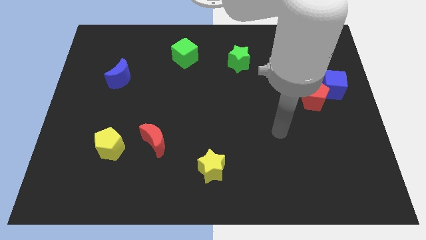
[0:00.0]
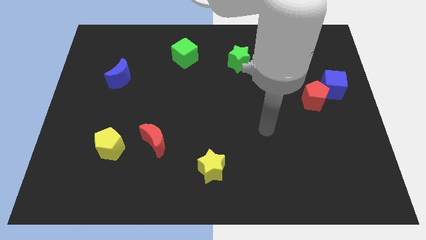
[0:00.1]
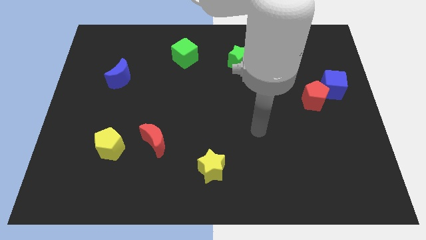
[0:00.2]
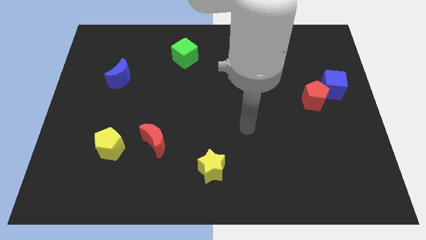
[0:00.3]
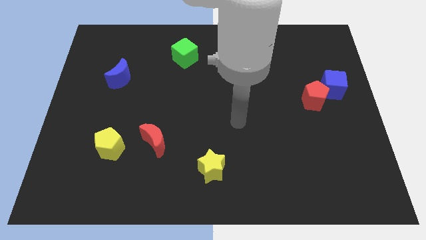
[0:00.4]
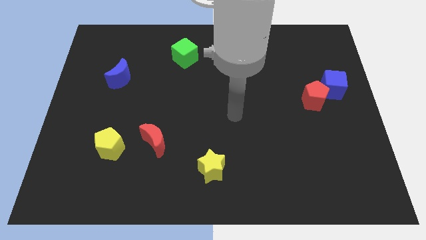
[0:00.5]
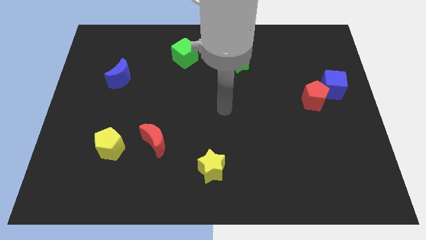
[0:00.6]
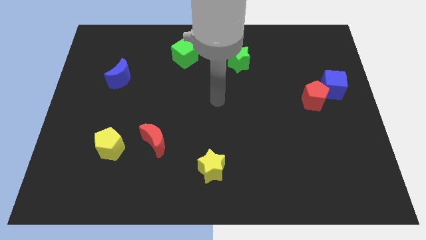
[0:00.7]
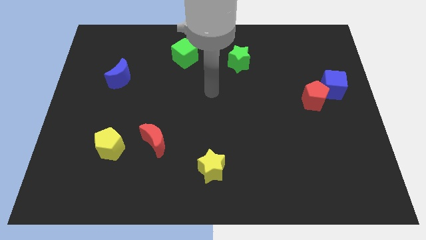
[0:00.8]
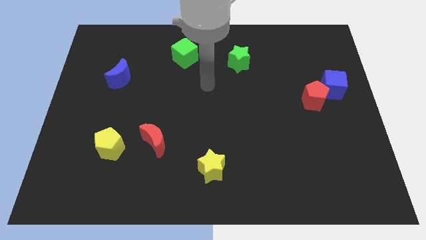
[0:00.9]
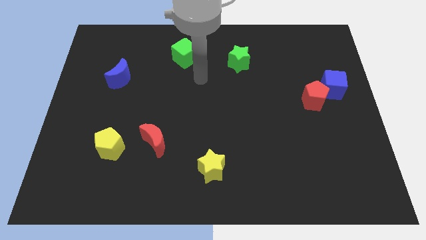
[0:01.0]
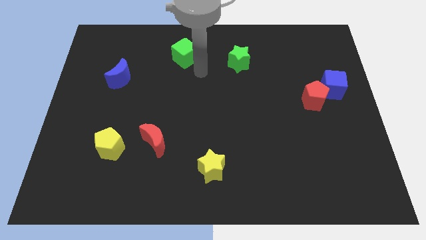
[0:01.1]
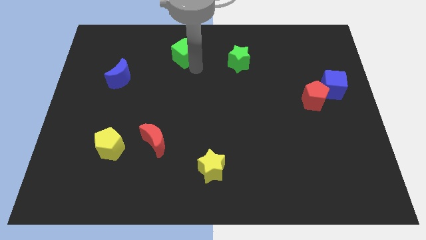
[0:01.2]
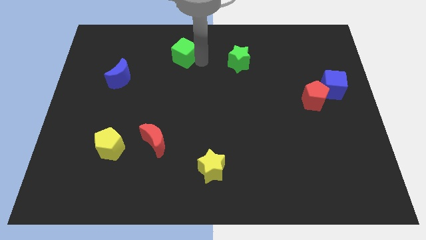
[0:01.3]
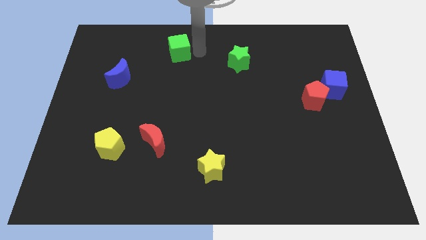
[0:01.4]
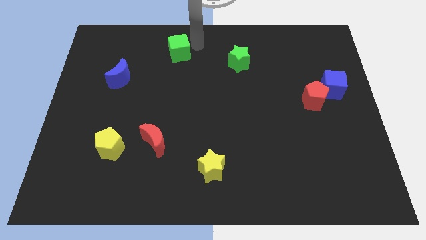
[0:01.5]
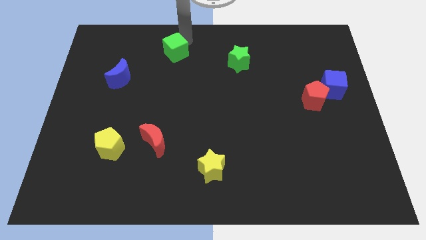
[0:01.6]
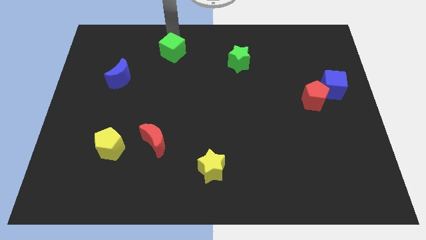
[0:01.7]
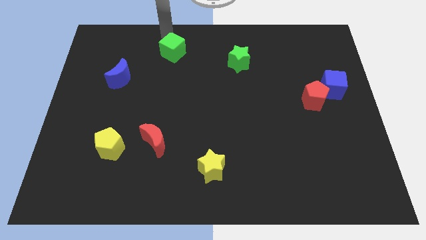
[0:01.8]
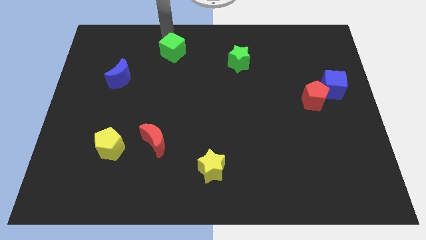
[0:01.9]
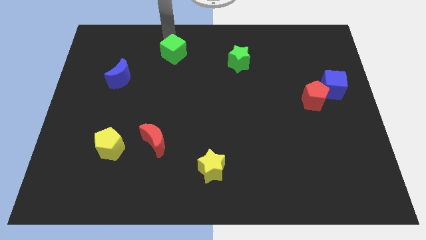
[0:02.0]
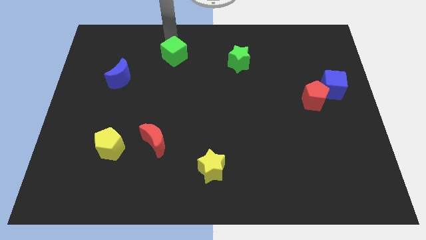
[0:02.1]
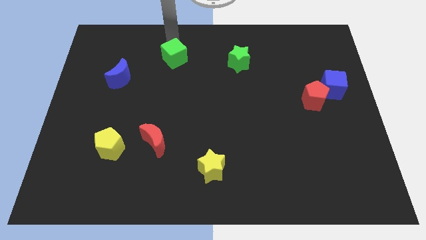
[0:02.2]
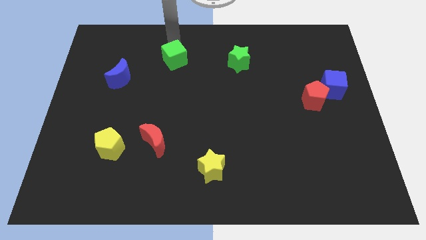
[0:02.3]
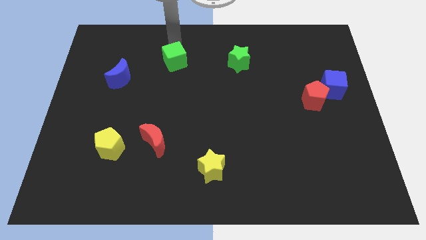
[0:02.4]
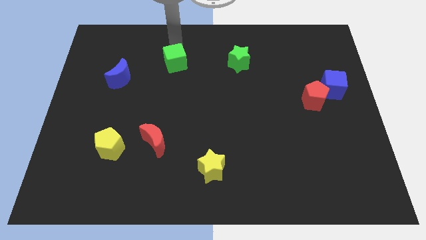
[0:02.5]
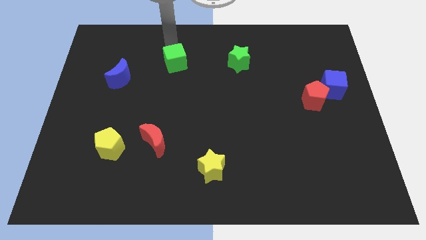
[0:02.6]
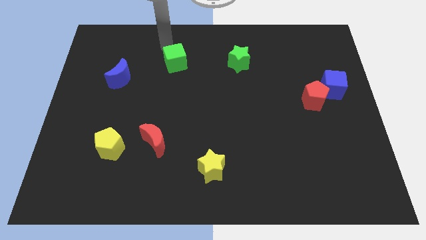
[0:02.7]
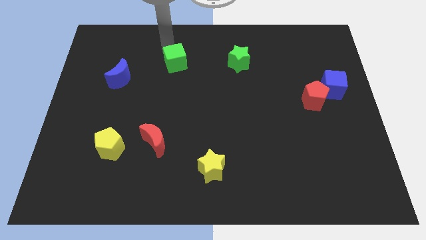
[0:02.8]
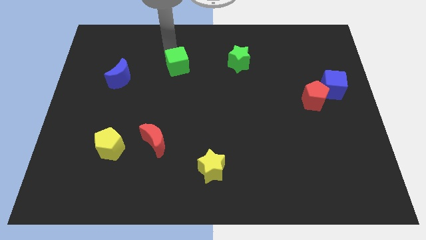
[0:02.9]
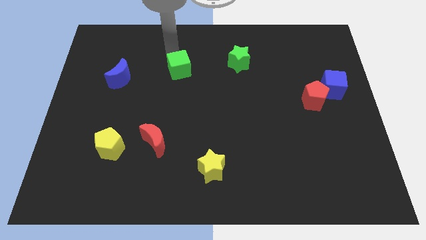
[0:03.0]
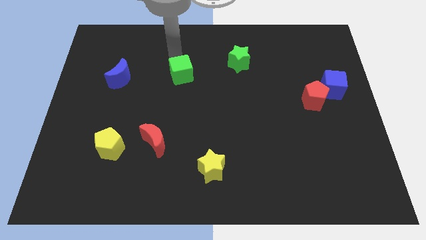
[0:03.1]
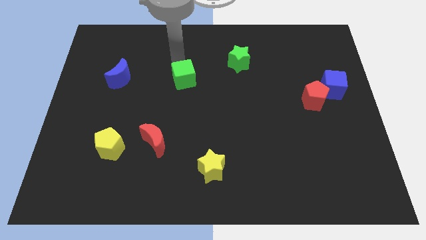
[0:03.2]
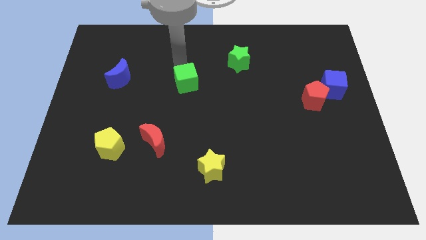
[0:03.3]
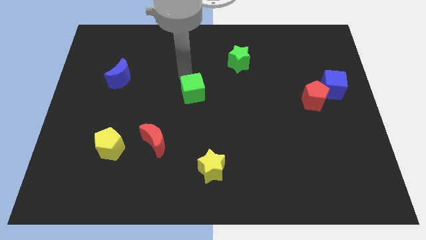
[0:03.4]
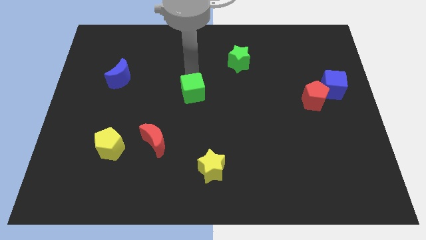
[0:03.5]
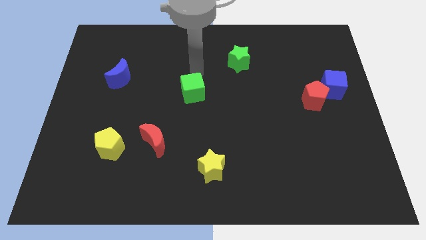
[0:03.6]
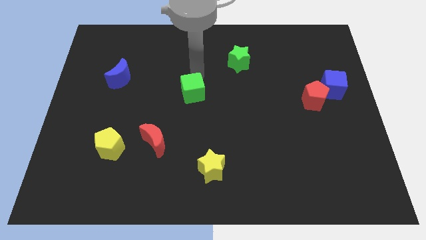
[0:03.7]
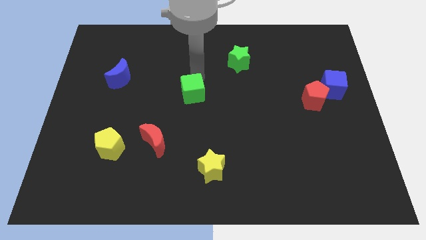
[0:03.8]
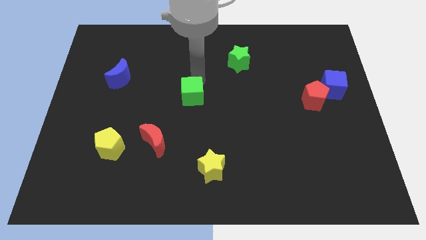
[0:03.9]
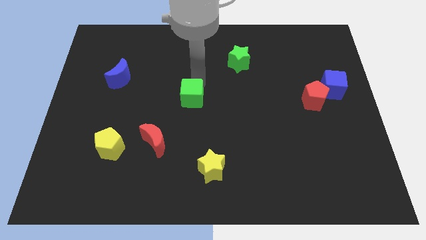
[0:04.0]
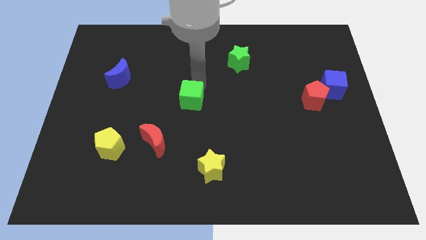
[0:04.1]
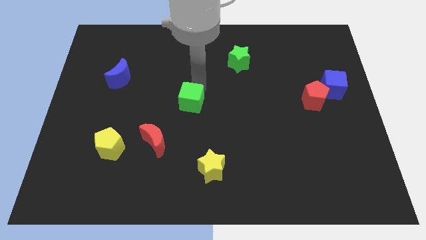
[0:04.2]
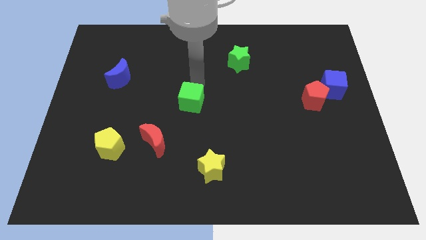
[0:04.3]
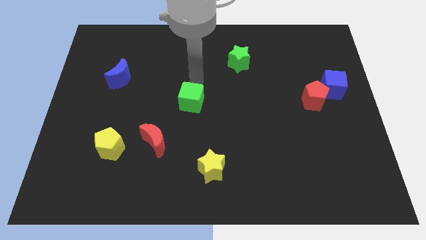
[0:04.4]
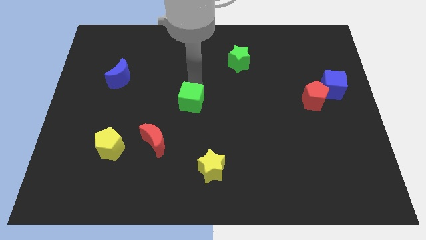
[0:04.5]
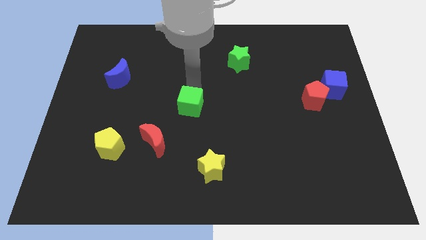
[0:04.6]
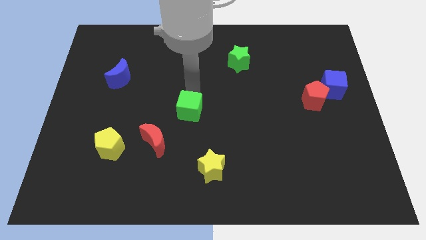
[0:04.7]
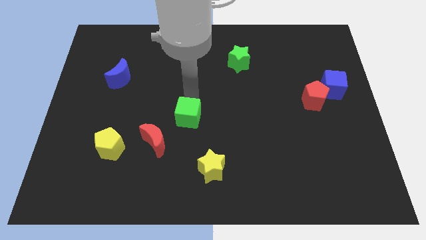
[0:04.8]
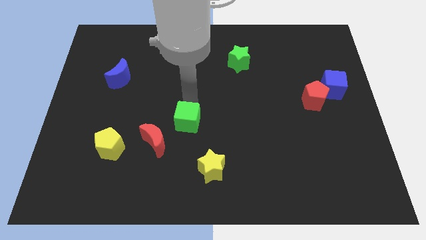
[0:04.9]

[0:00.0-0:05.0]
push the green cube down

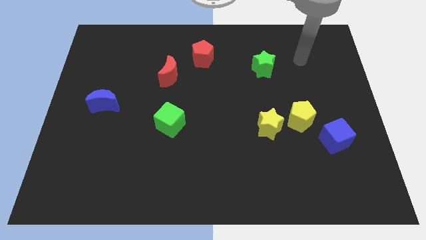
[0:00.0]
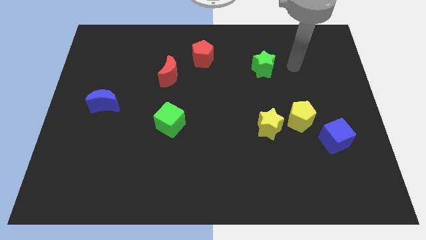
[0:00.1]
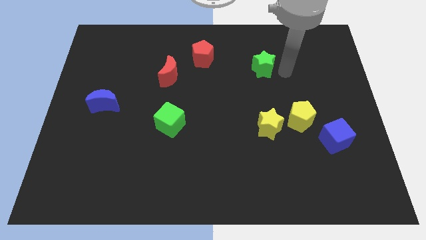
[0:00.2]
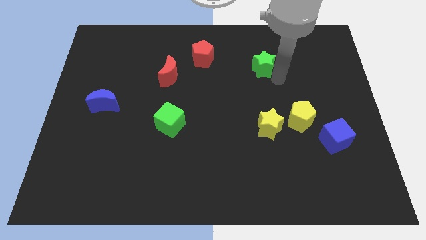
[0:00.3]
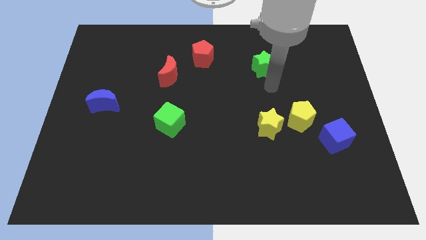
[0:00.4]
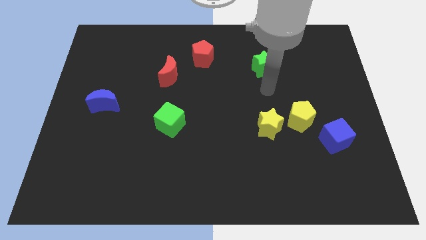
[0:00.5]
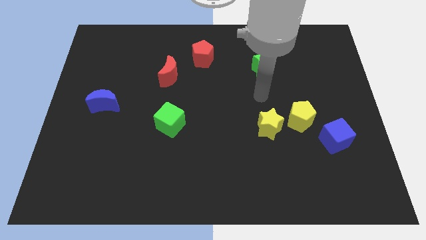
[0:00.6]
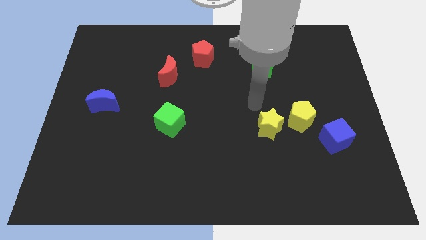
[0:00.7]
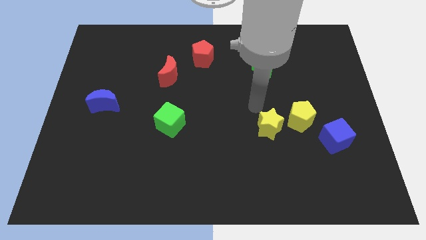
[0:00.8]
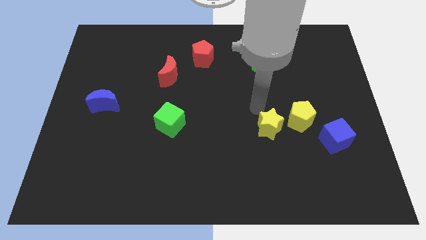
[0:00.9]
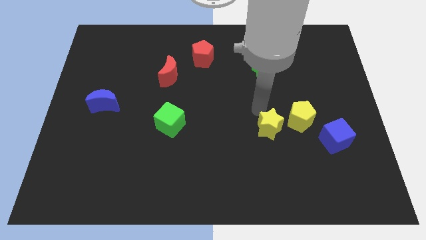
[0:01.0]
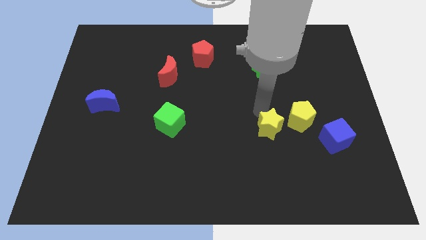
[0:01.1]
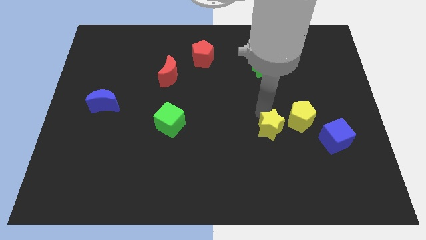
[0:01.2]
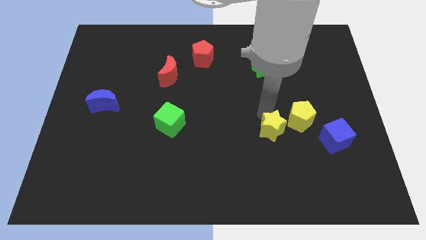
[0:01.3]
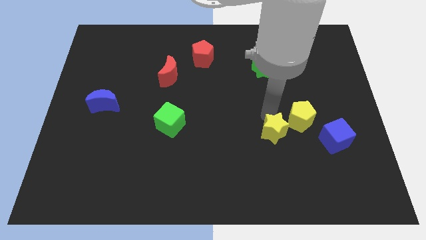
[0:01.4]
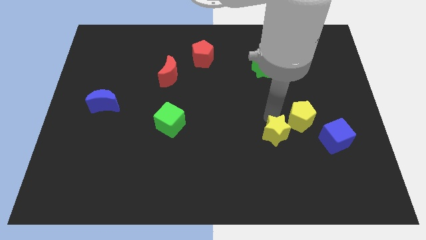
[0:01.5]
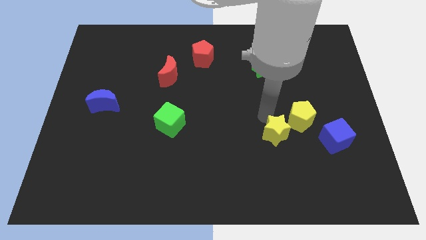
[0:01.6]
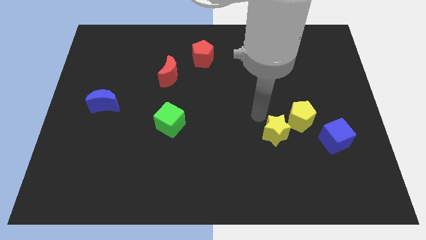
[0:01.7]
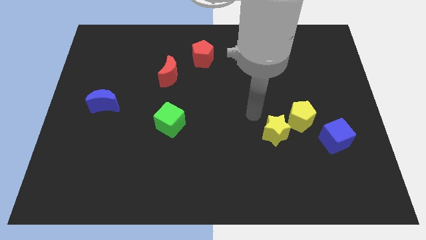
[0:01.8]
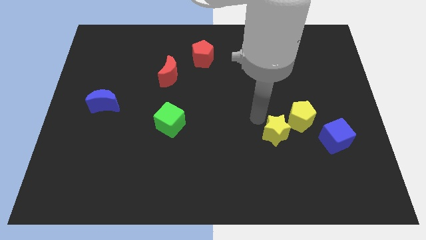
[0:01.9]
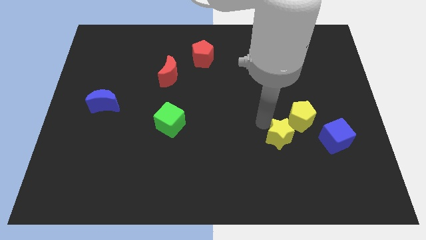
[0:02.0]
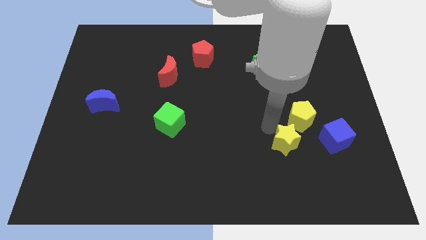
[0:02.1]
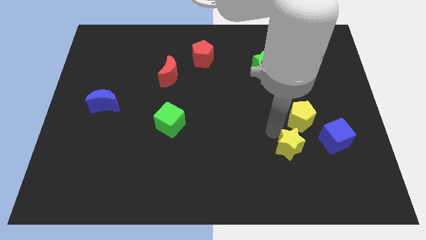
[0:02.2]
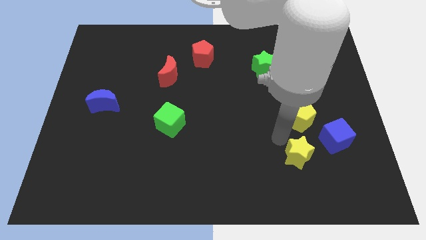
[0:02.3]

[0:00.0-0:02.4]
move the yellow star diagonally downwards and right somewhat

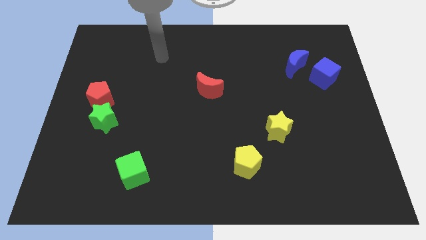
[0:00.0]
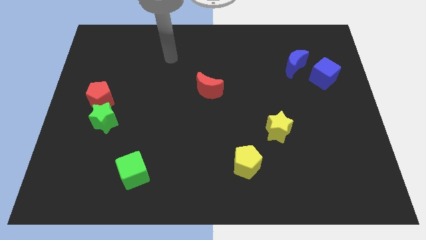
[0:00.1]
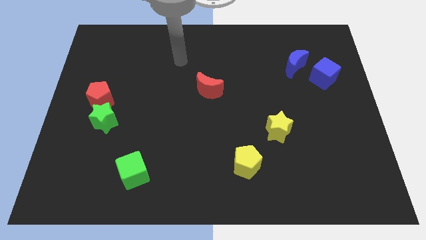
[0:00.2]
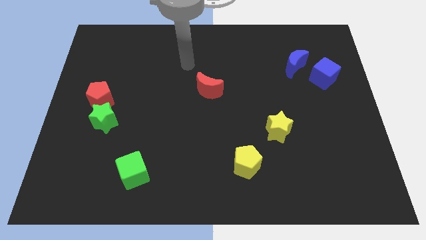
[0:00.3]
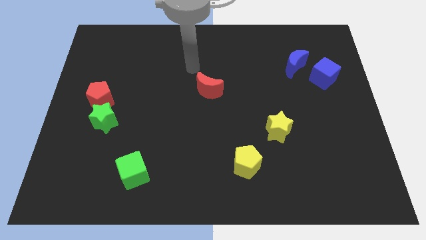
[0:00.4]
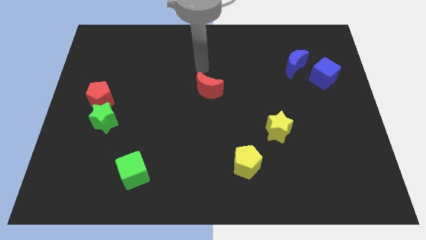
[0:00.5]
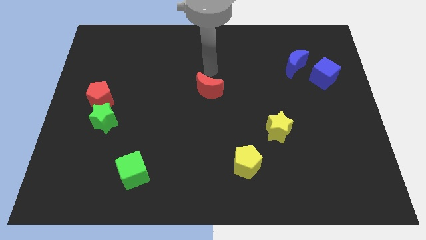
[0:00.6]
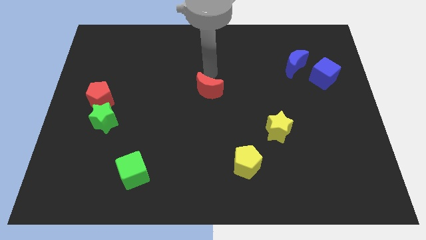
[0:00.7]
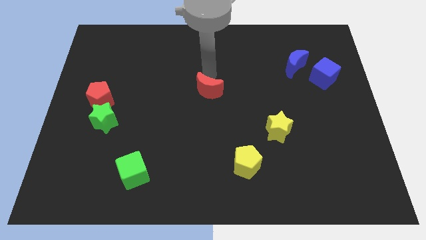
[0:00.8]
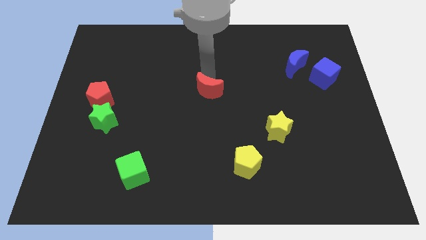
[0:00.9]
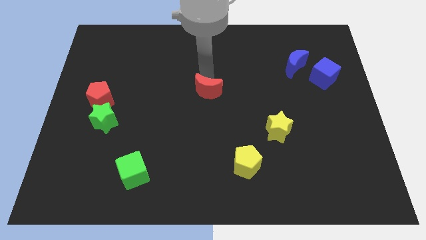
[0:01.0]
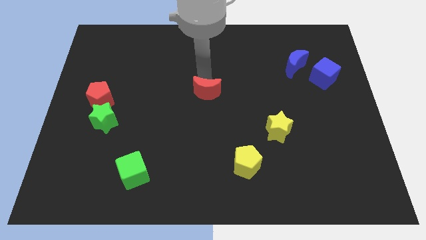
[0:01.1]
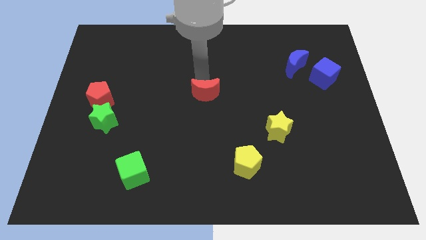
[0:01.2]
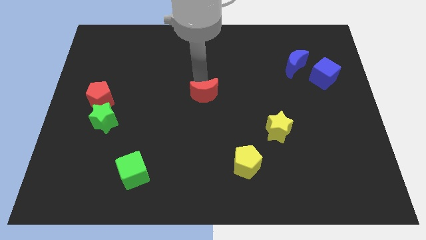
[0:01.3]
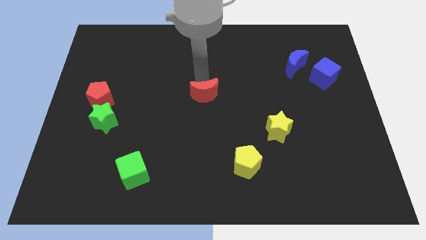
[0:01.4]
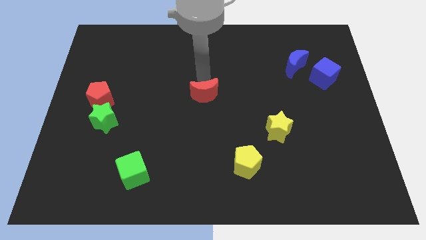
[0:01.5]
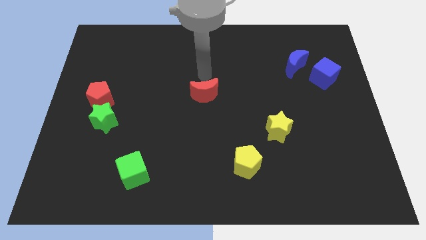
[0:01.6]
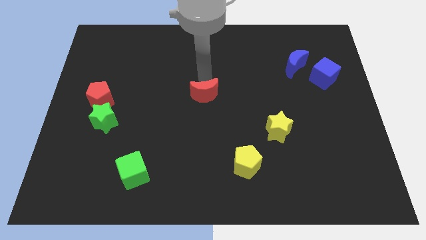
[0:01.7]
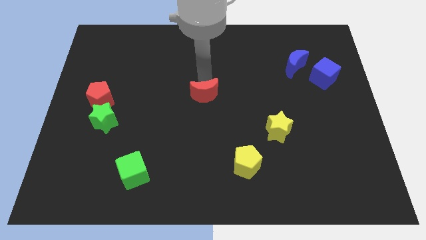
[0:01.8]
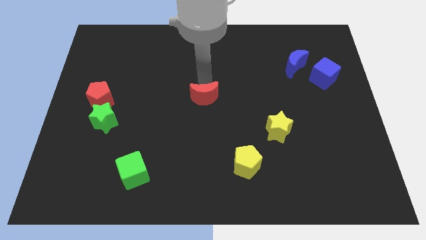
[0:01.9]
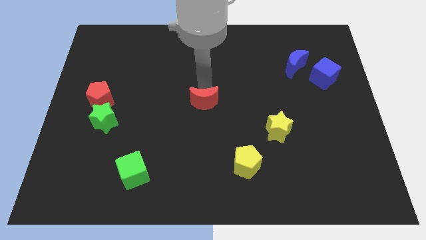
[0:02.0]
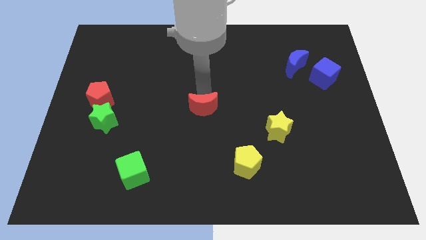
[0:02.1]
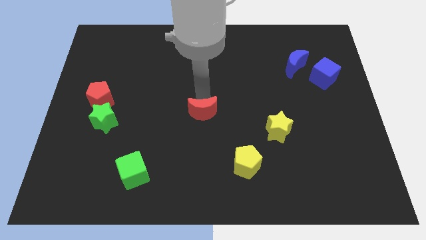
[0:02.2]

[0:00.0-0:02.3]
move the red moon down a little bit
